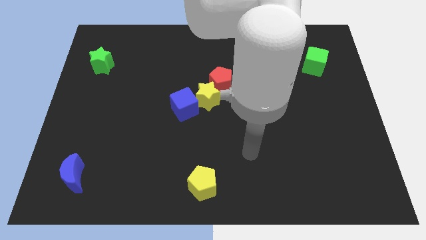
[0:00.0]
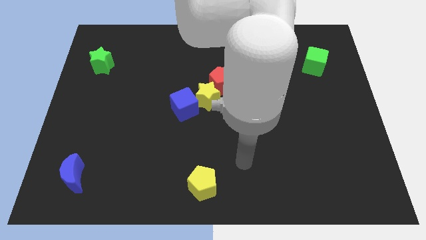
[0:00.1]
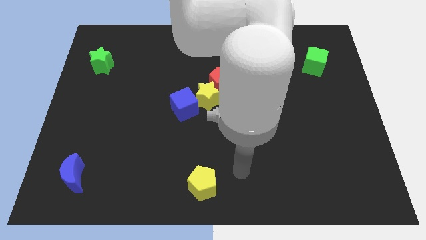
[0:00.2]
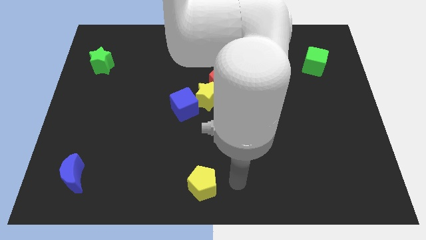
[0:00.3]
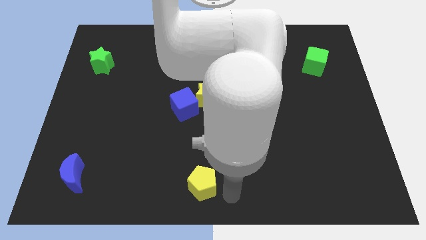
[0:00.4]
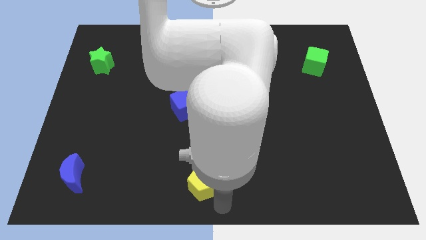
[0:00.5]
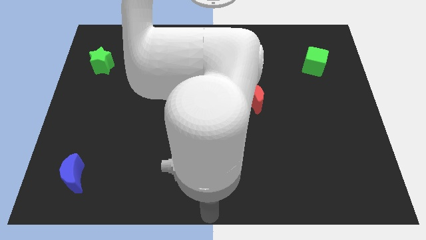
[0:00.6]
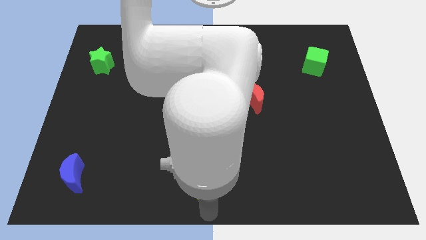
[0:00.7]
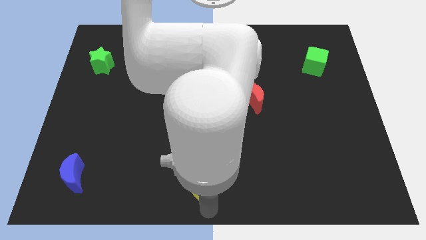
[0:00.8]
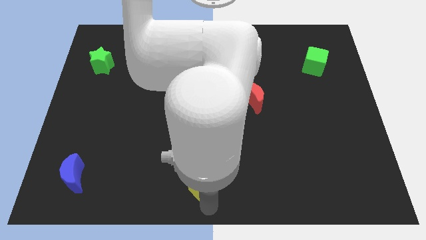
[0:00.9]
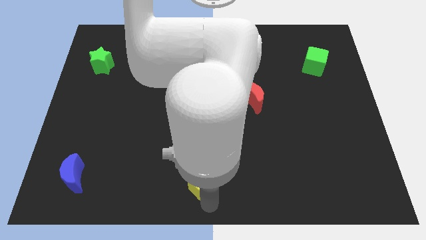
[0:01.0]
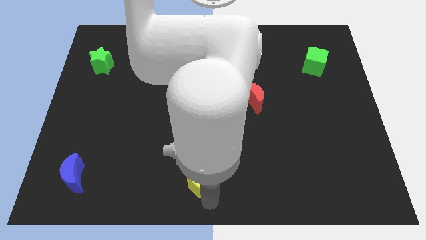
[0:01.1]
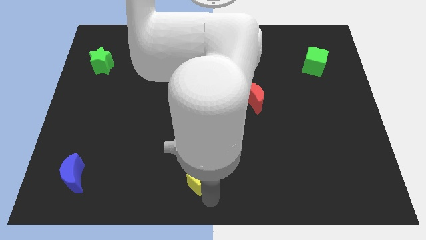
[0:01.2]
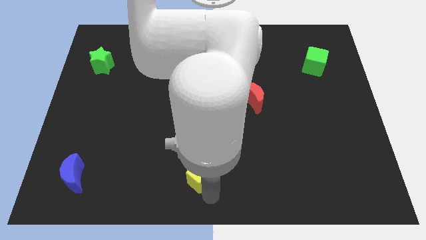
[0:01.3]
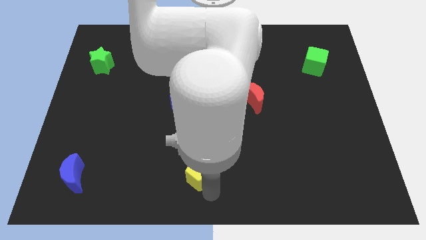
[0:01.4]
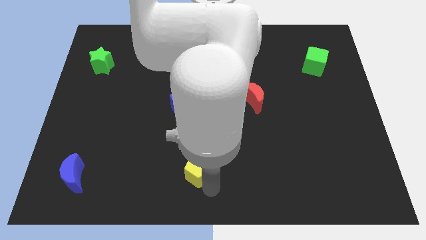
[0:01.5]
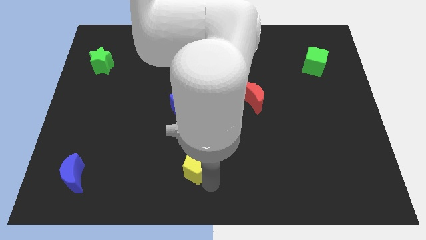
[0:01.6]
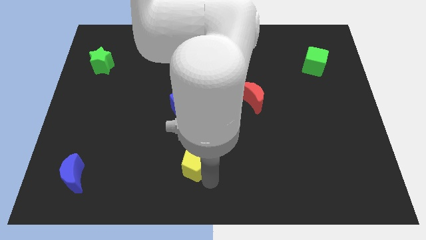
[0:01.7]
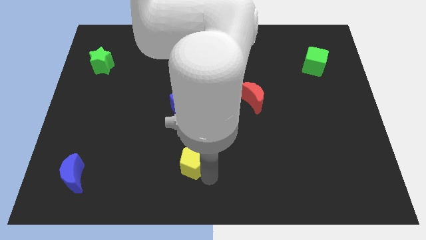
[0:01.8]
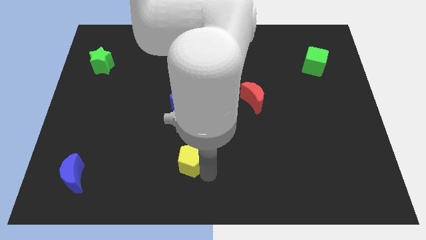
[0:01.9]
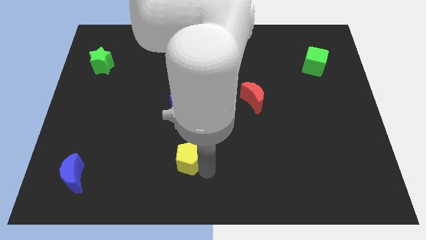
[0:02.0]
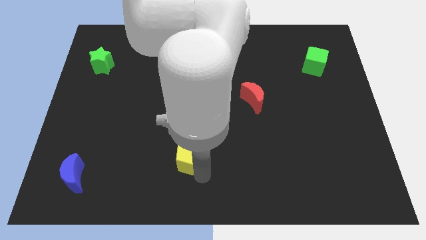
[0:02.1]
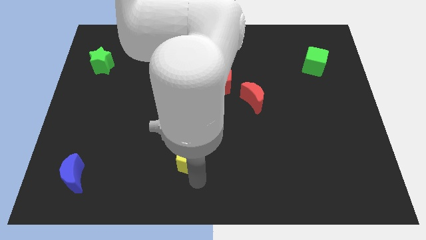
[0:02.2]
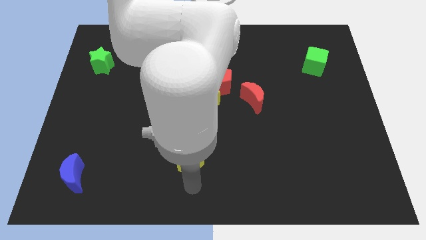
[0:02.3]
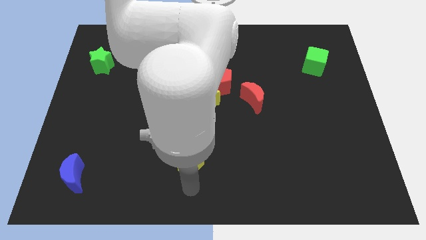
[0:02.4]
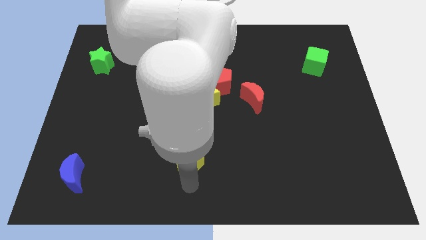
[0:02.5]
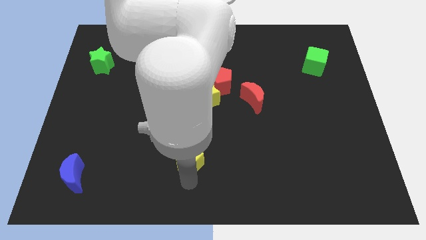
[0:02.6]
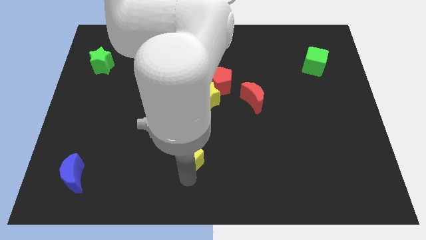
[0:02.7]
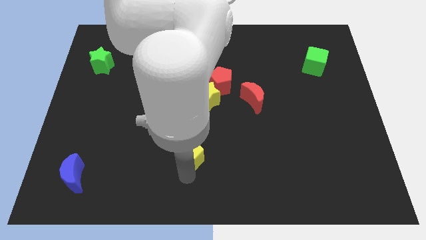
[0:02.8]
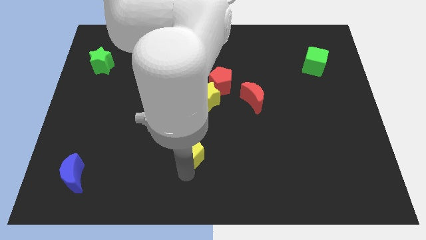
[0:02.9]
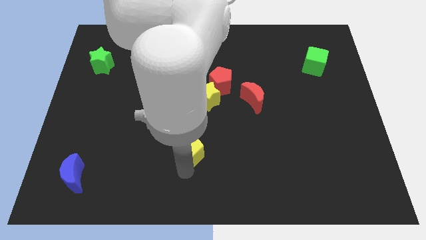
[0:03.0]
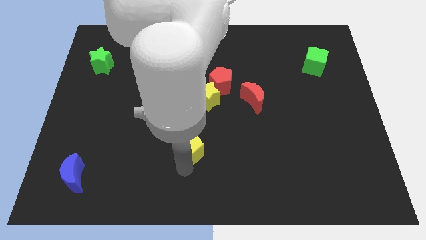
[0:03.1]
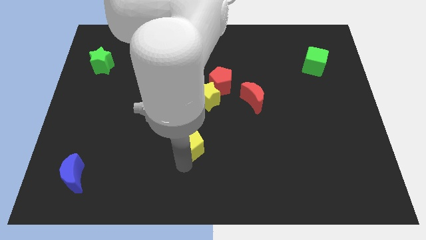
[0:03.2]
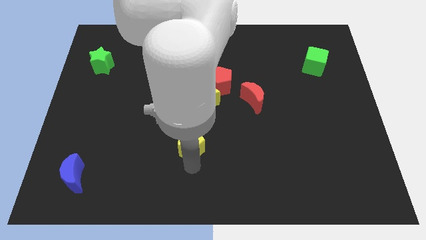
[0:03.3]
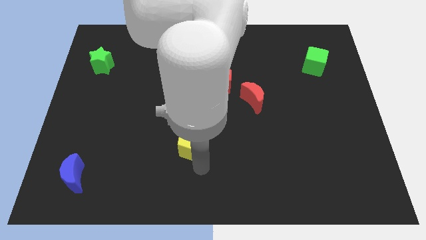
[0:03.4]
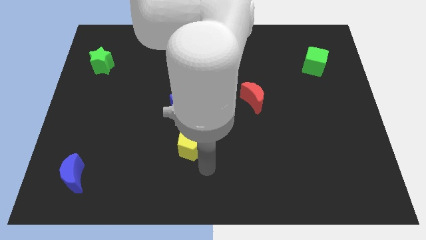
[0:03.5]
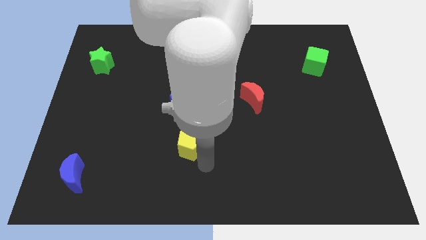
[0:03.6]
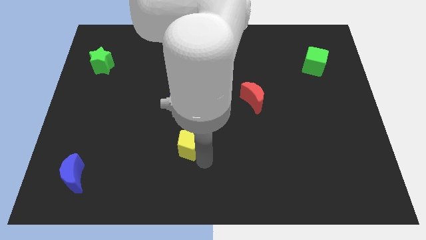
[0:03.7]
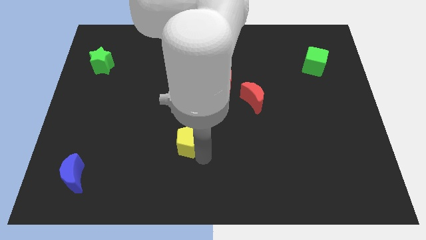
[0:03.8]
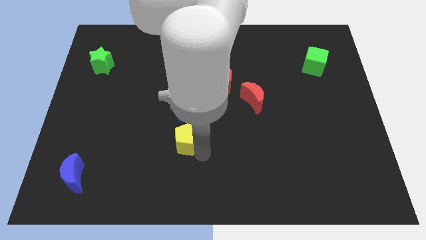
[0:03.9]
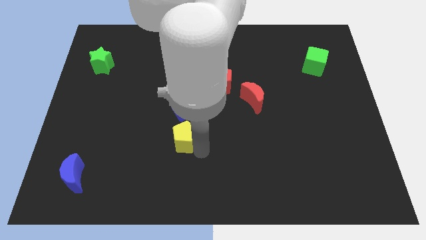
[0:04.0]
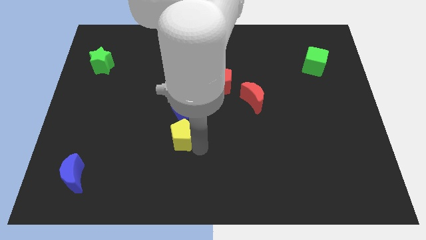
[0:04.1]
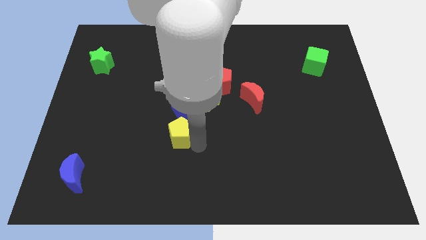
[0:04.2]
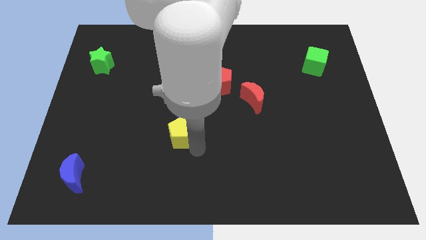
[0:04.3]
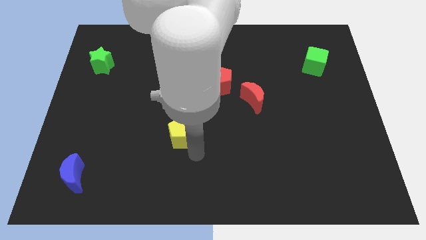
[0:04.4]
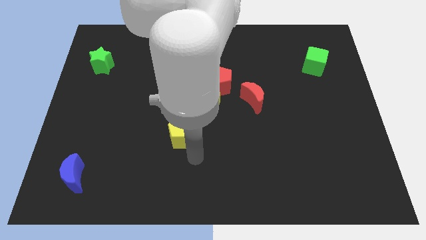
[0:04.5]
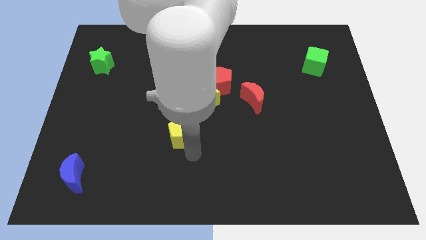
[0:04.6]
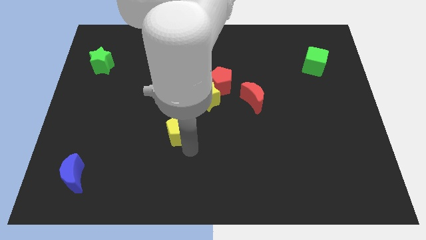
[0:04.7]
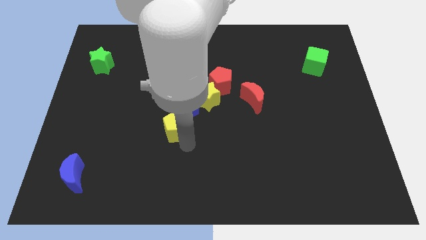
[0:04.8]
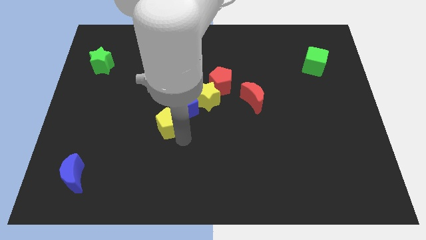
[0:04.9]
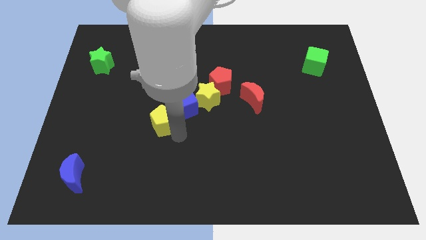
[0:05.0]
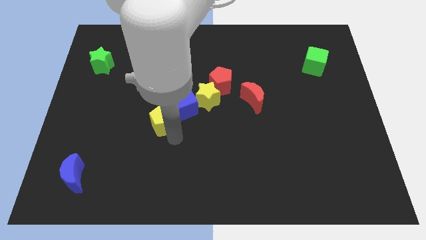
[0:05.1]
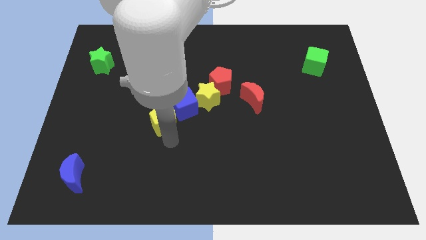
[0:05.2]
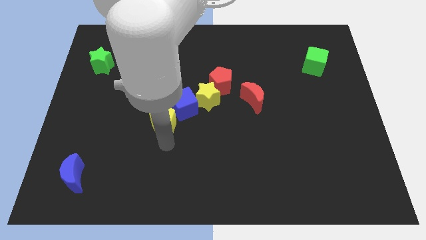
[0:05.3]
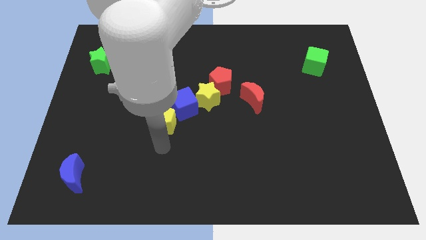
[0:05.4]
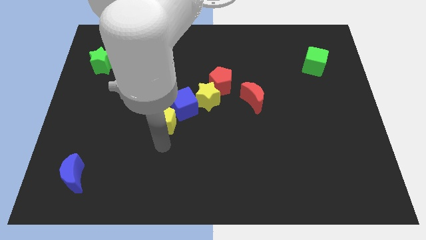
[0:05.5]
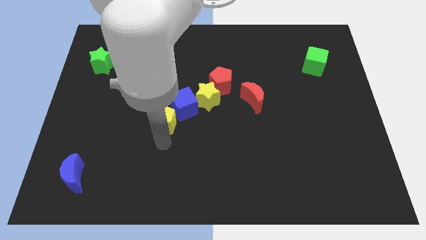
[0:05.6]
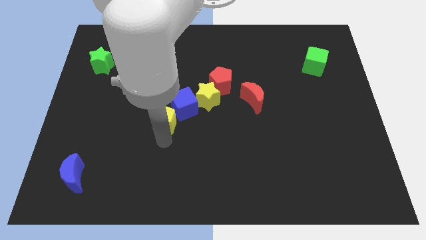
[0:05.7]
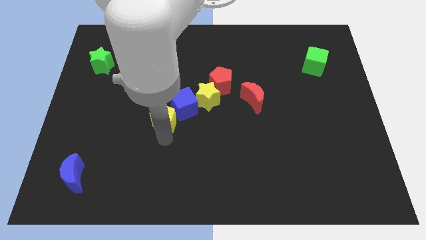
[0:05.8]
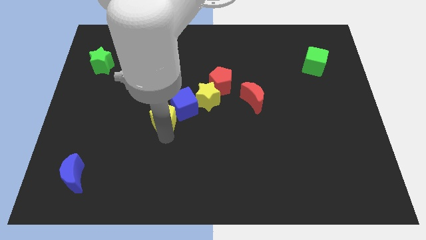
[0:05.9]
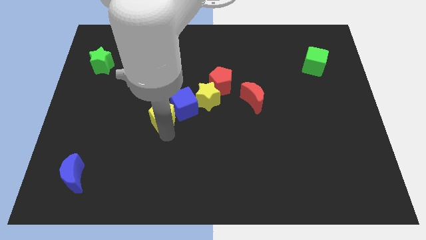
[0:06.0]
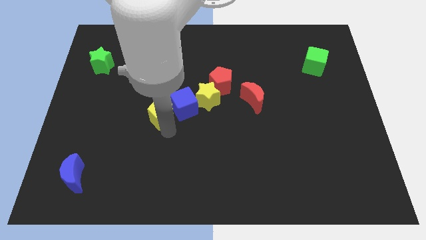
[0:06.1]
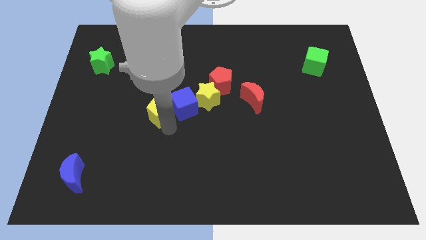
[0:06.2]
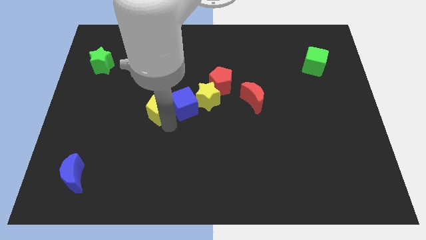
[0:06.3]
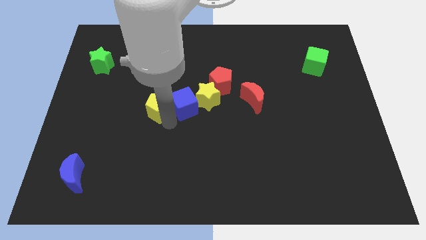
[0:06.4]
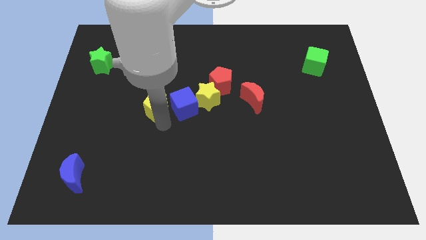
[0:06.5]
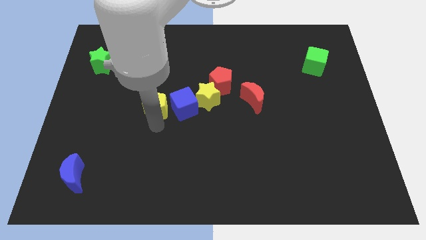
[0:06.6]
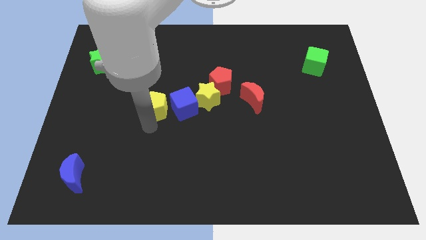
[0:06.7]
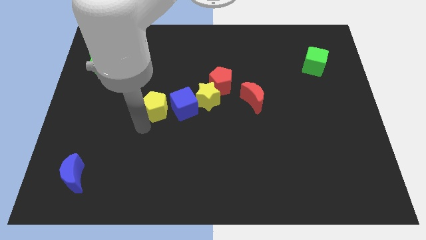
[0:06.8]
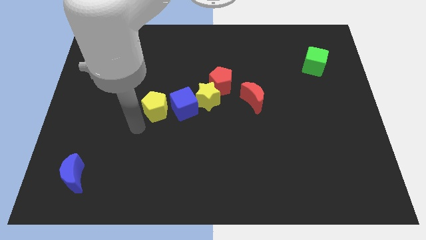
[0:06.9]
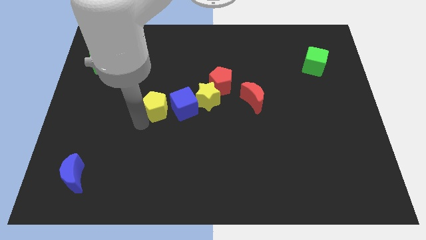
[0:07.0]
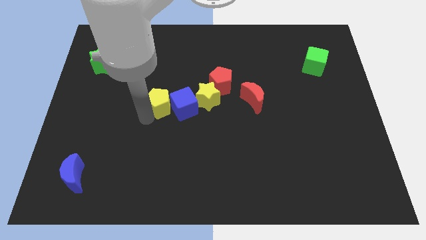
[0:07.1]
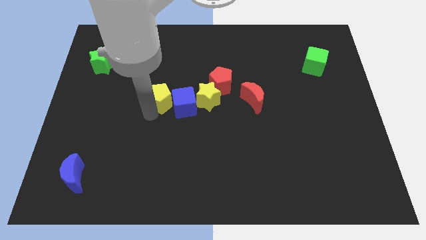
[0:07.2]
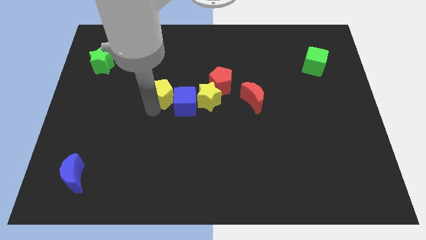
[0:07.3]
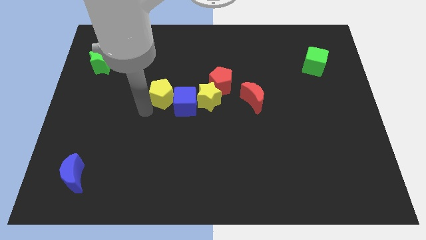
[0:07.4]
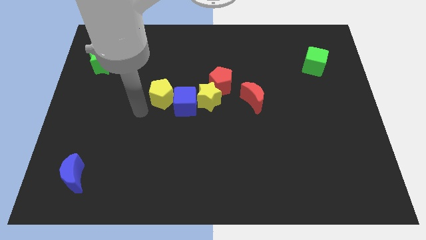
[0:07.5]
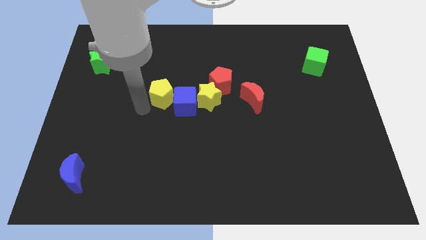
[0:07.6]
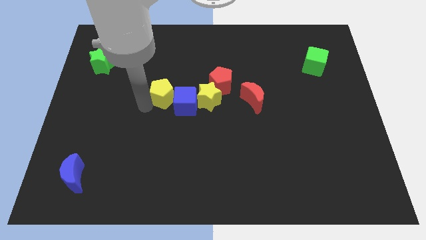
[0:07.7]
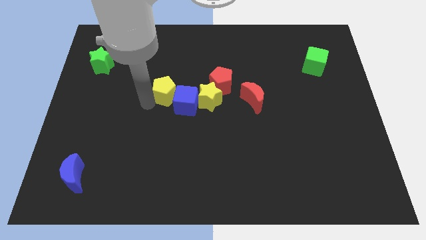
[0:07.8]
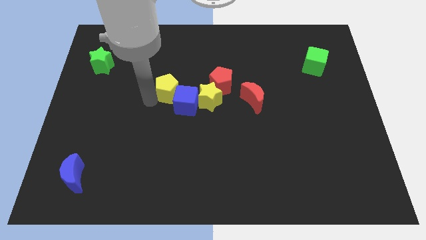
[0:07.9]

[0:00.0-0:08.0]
push the yellow pentagon up
